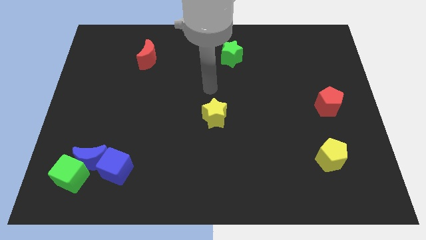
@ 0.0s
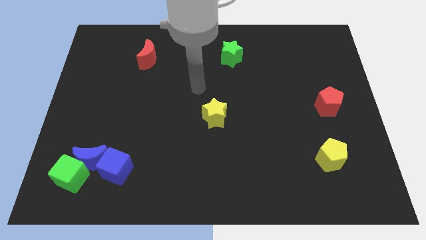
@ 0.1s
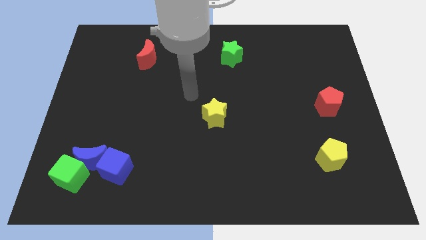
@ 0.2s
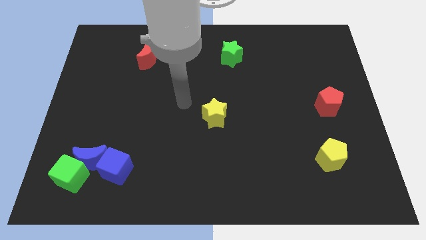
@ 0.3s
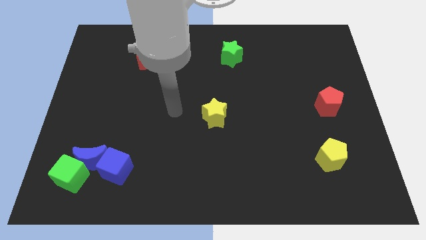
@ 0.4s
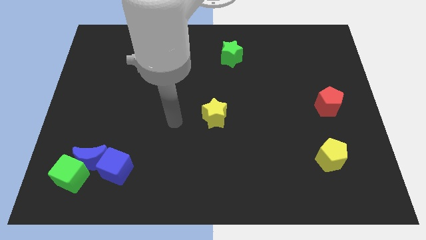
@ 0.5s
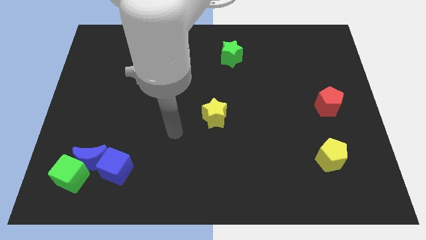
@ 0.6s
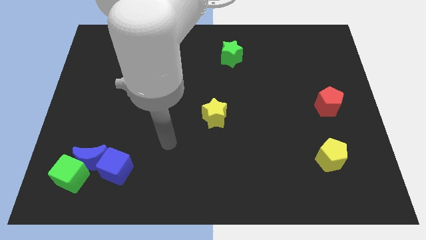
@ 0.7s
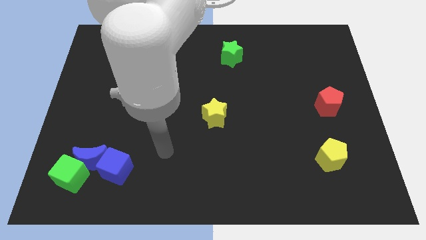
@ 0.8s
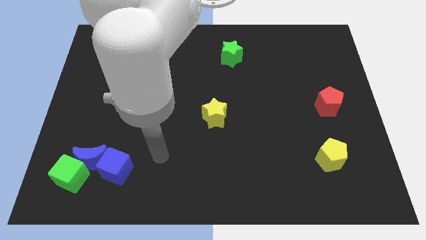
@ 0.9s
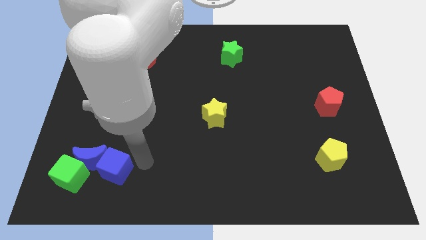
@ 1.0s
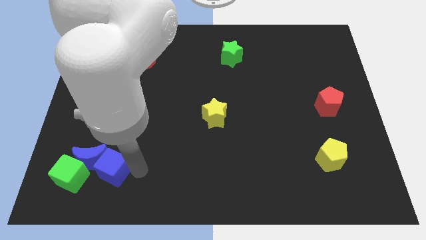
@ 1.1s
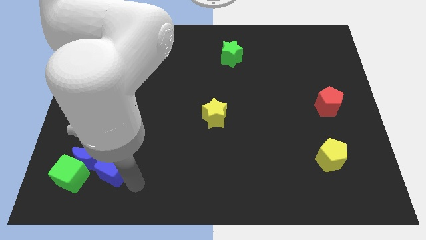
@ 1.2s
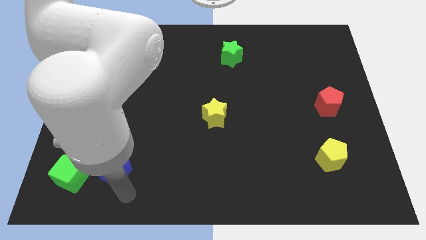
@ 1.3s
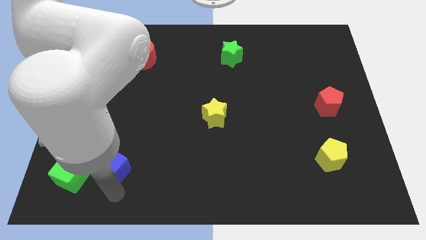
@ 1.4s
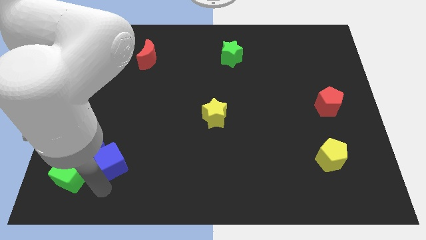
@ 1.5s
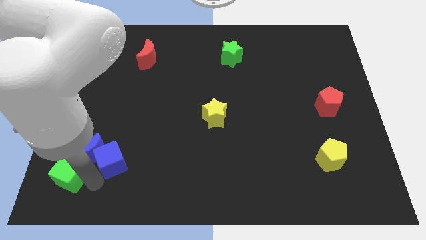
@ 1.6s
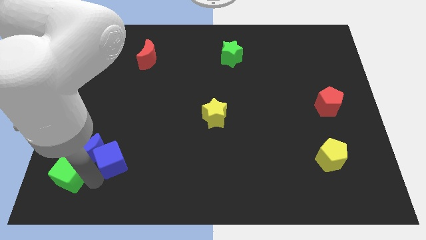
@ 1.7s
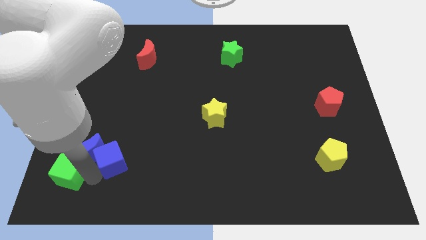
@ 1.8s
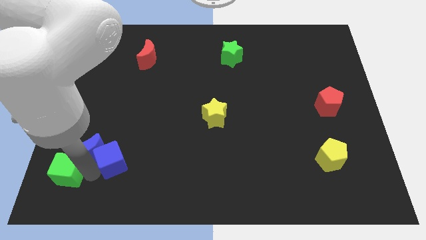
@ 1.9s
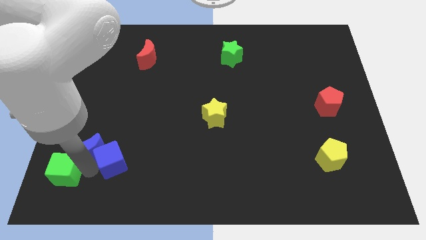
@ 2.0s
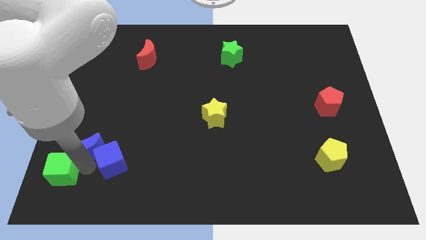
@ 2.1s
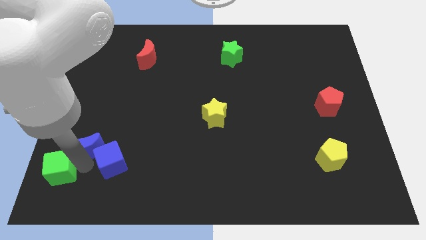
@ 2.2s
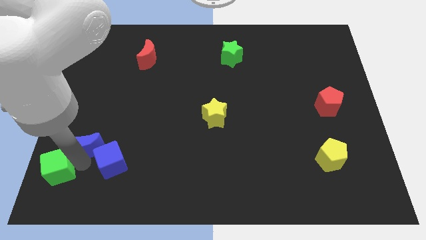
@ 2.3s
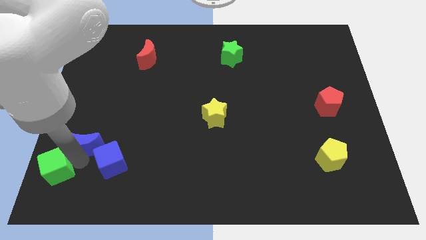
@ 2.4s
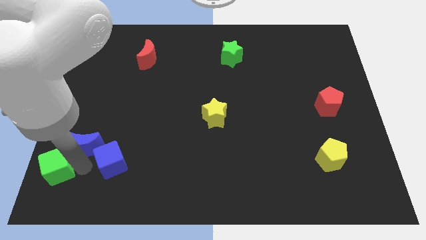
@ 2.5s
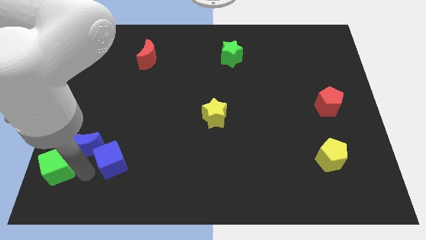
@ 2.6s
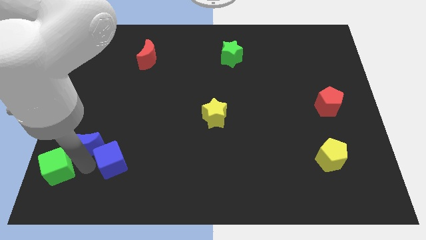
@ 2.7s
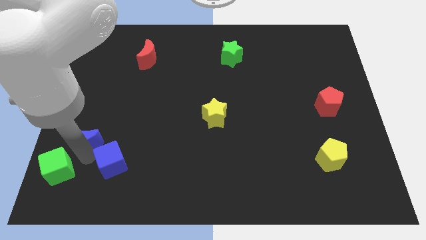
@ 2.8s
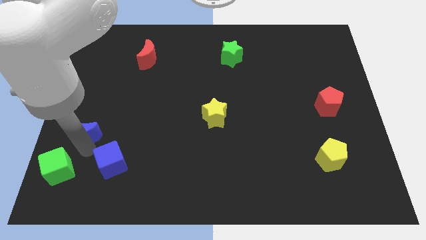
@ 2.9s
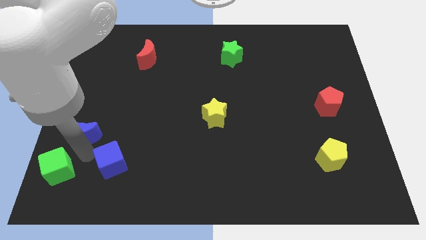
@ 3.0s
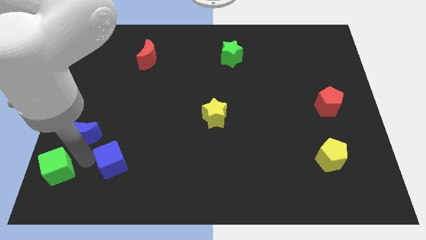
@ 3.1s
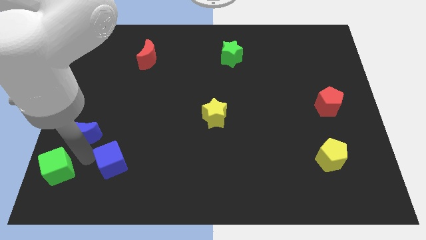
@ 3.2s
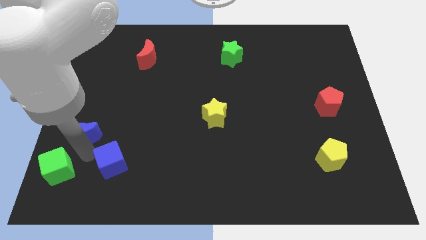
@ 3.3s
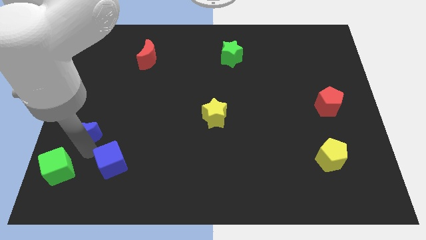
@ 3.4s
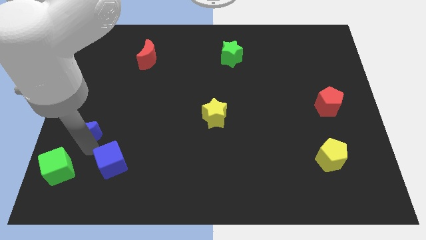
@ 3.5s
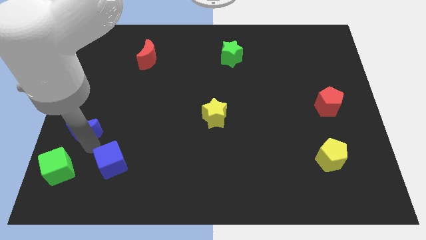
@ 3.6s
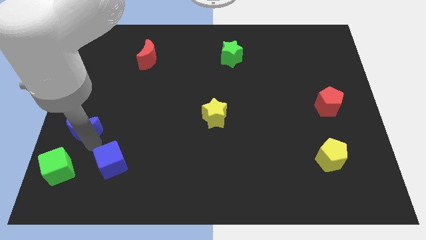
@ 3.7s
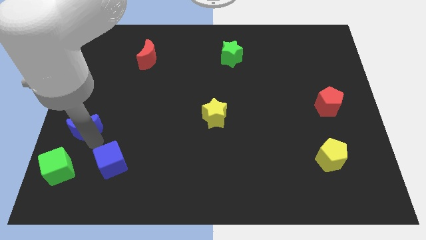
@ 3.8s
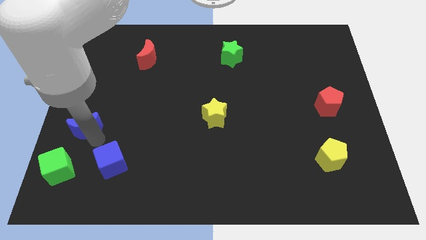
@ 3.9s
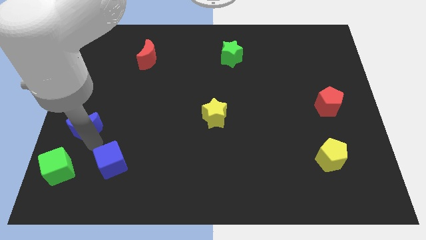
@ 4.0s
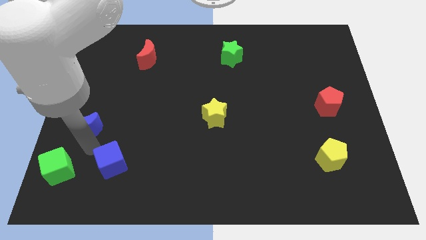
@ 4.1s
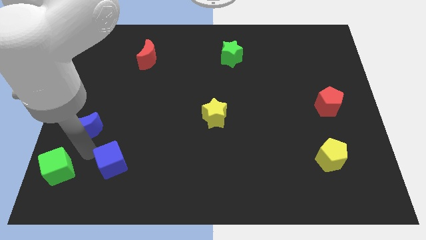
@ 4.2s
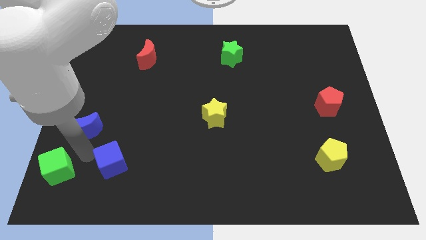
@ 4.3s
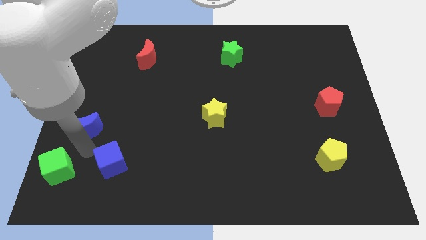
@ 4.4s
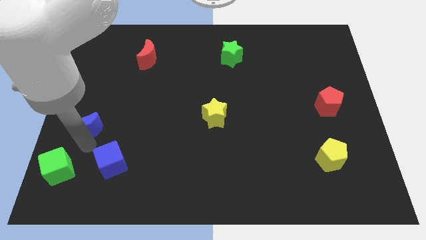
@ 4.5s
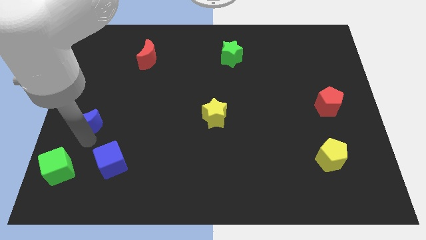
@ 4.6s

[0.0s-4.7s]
separate the blue moon from the green cube and blue cube

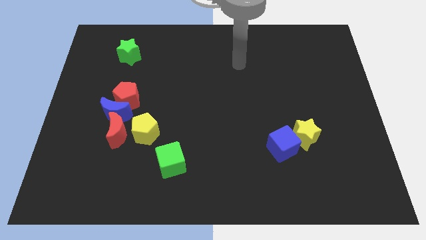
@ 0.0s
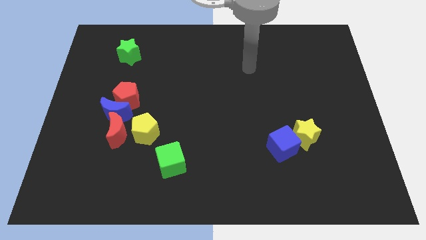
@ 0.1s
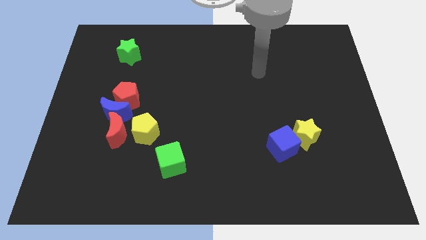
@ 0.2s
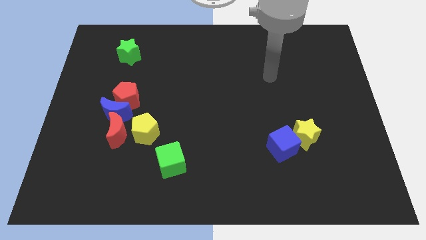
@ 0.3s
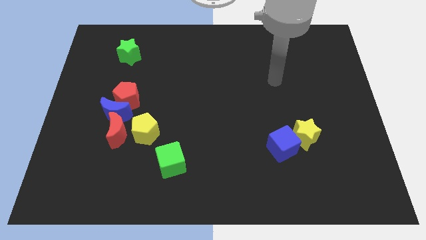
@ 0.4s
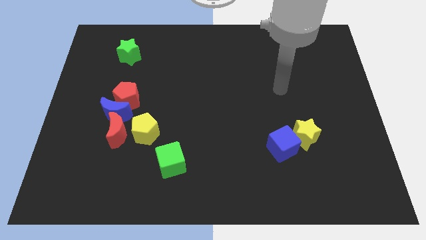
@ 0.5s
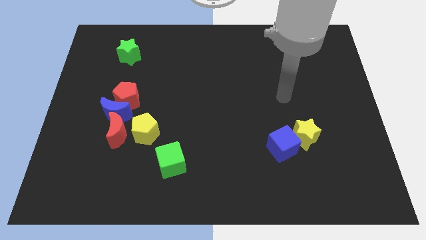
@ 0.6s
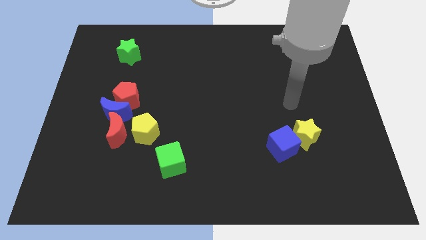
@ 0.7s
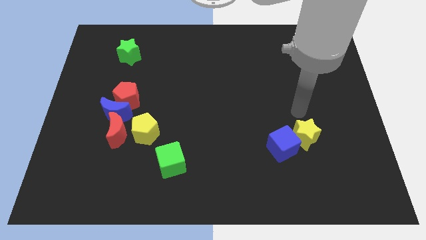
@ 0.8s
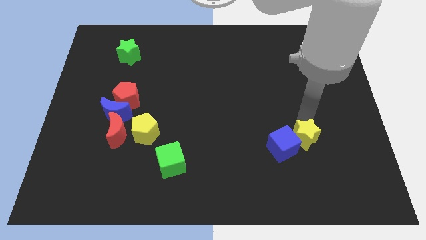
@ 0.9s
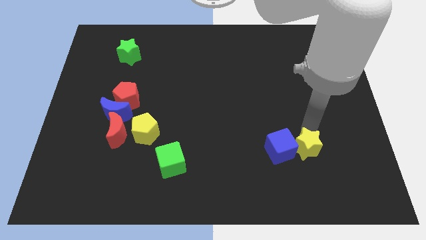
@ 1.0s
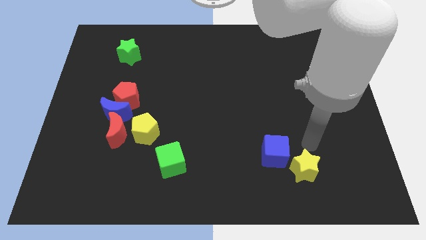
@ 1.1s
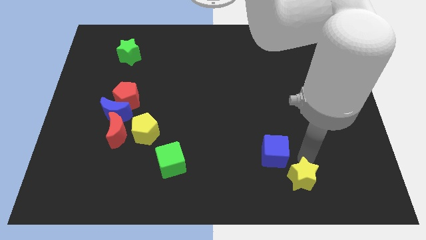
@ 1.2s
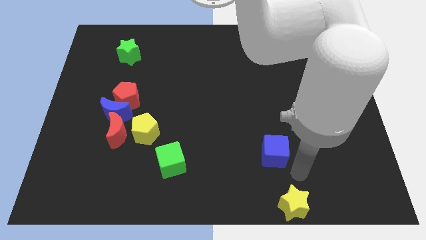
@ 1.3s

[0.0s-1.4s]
pull the blue cube apart from the yellow star

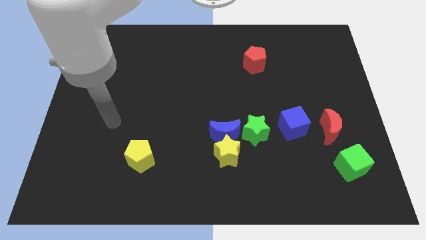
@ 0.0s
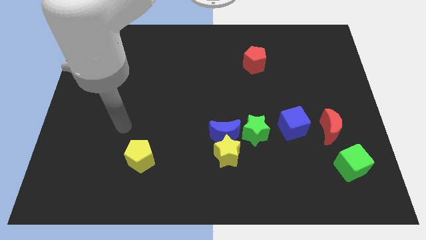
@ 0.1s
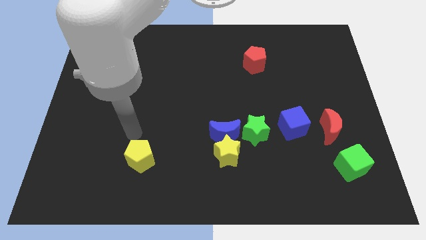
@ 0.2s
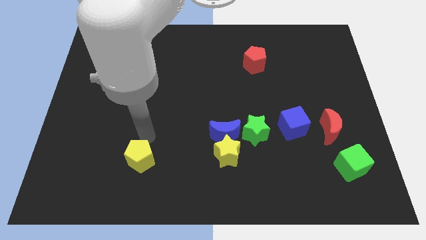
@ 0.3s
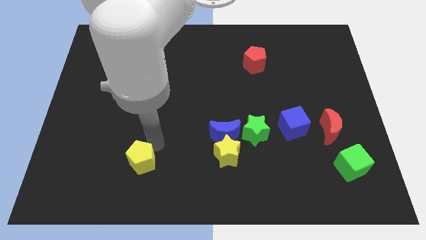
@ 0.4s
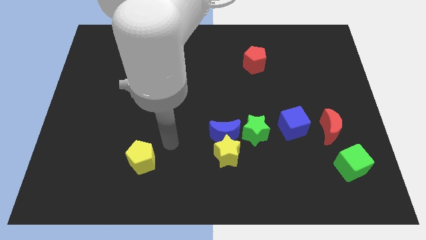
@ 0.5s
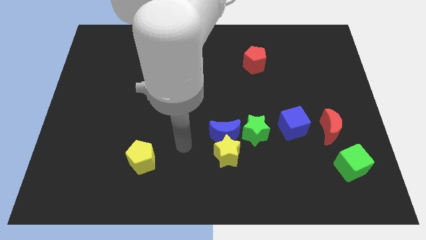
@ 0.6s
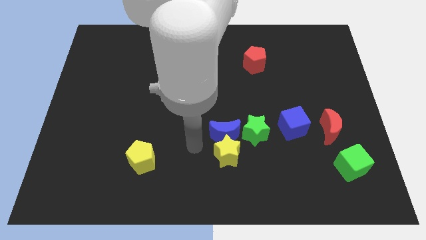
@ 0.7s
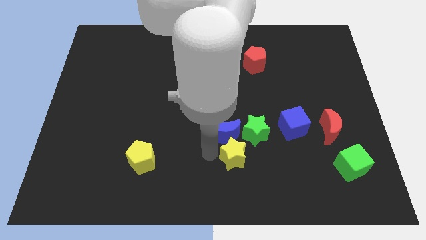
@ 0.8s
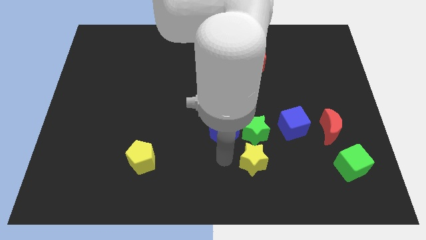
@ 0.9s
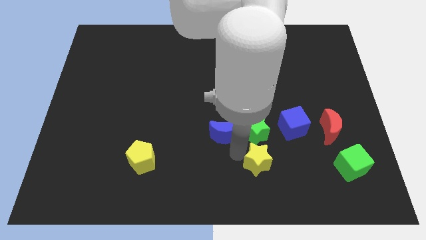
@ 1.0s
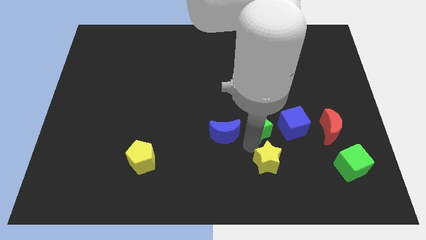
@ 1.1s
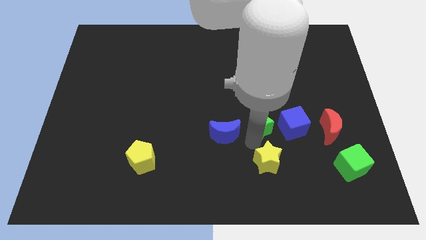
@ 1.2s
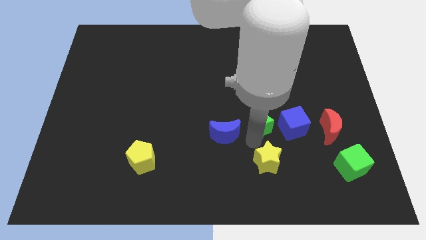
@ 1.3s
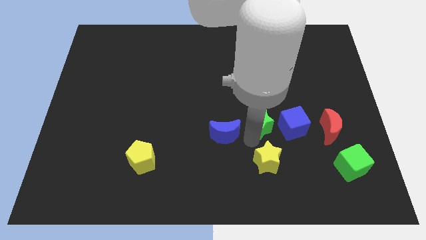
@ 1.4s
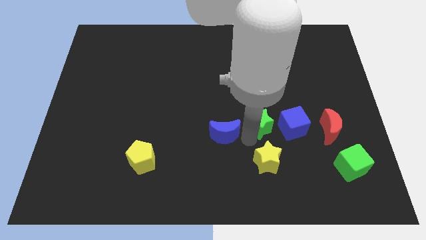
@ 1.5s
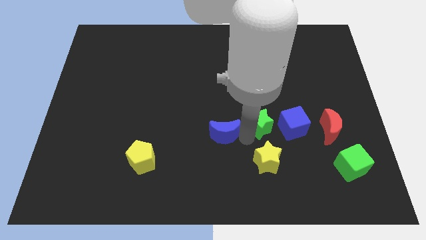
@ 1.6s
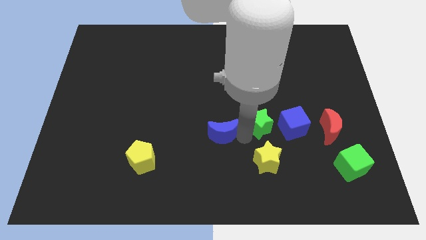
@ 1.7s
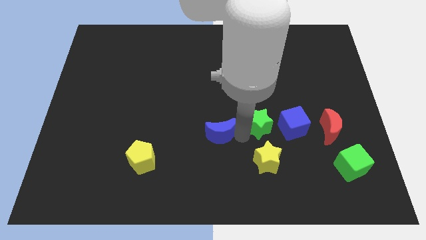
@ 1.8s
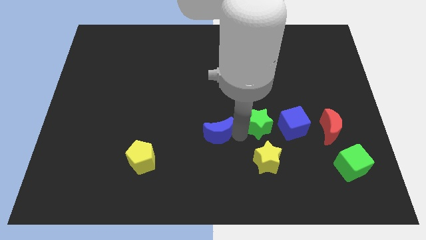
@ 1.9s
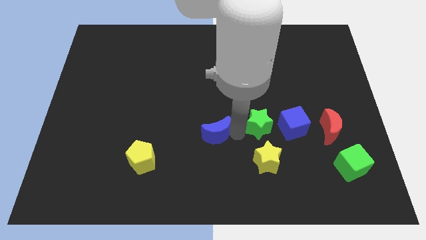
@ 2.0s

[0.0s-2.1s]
separate the blue moon from the yellow star and green star

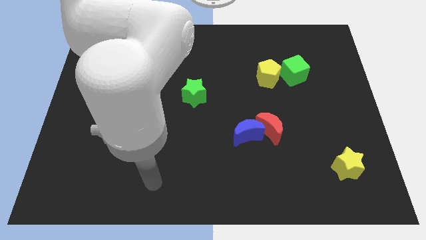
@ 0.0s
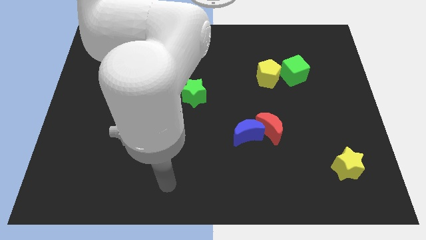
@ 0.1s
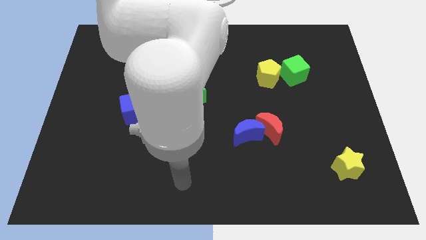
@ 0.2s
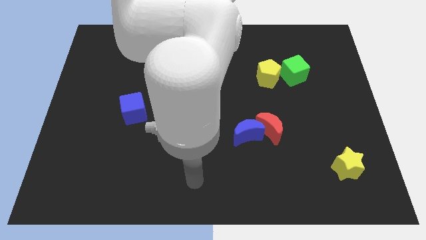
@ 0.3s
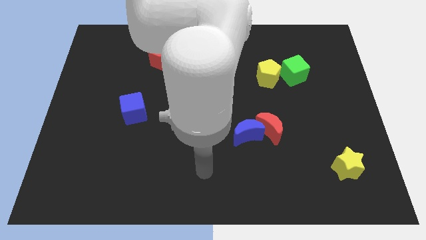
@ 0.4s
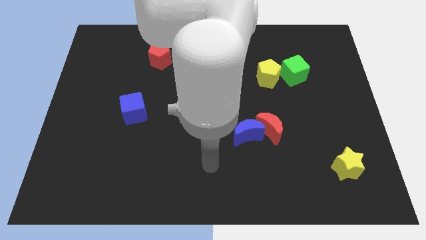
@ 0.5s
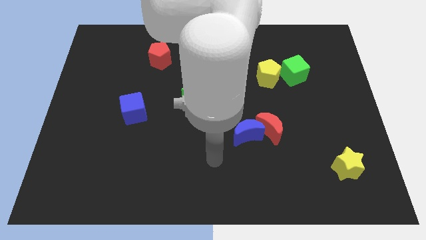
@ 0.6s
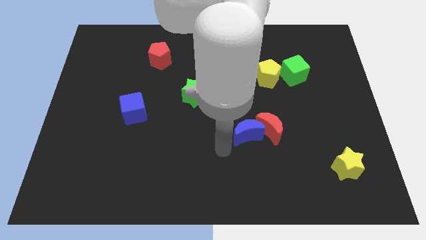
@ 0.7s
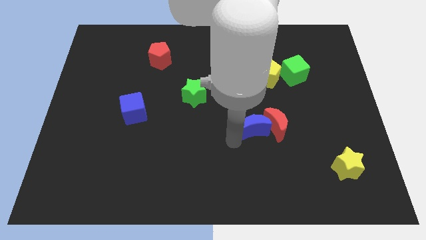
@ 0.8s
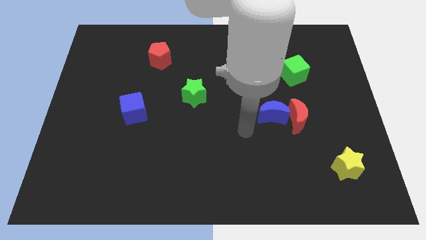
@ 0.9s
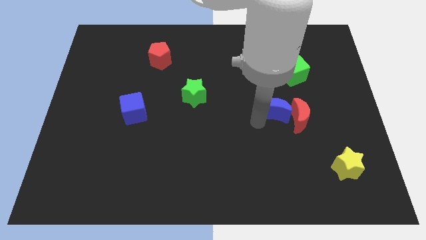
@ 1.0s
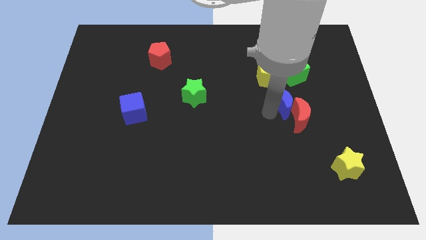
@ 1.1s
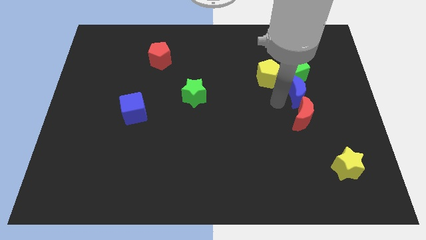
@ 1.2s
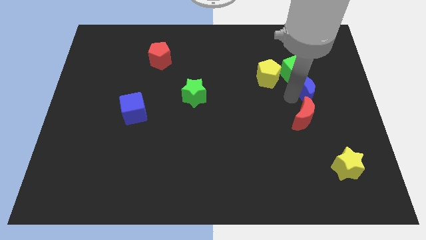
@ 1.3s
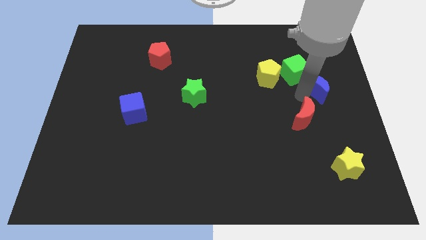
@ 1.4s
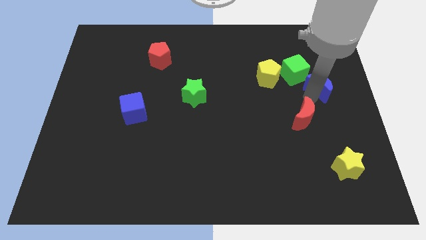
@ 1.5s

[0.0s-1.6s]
pull the red moon apart from the blue moon
